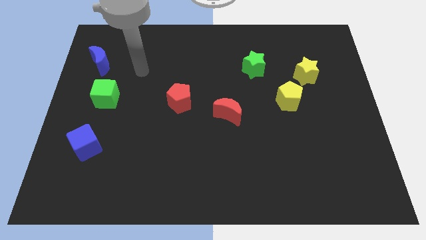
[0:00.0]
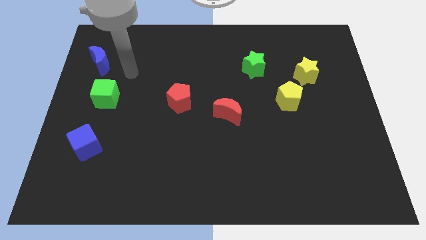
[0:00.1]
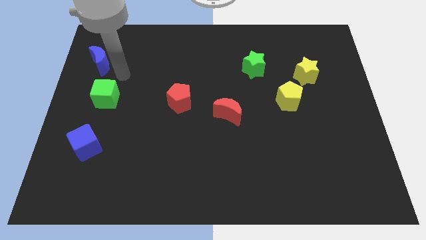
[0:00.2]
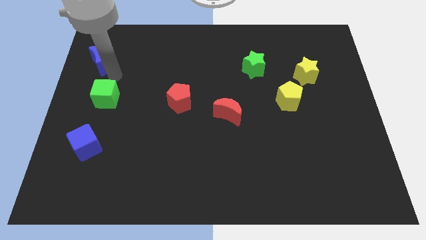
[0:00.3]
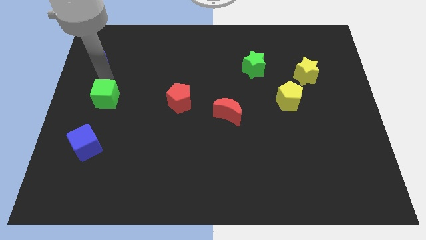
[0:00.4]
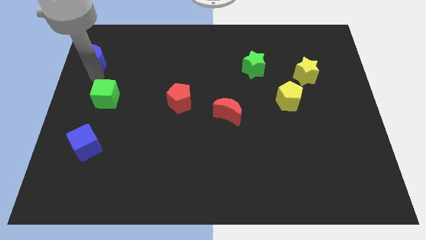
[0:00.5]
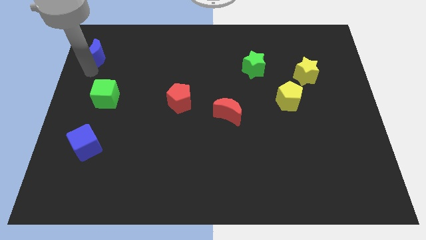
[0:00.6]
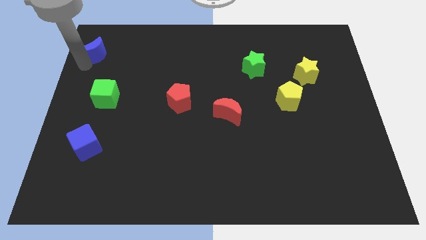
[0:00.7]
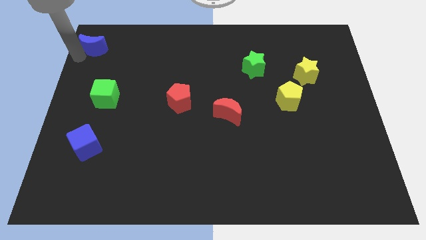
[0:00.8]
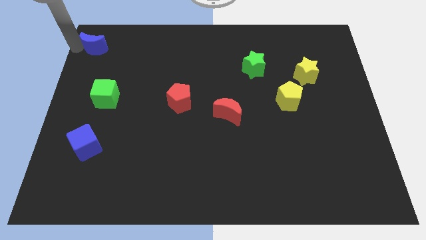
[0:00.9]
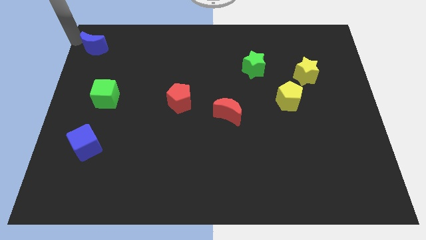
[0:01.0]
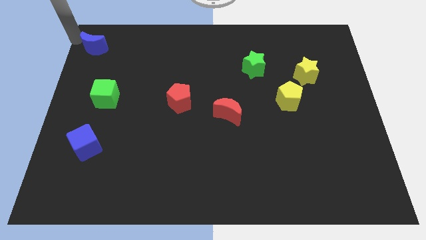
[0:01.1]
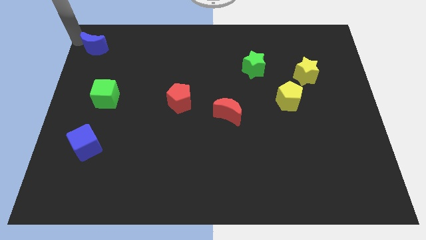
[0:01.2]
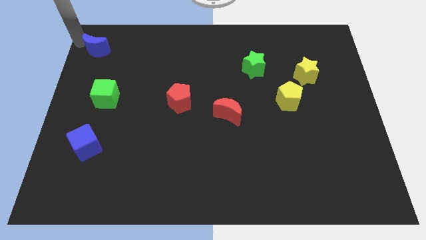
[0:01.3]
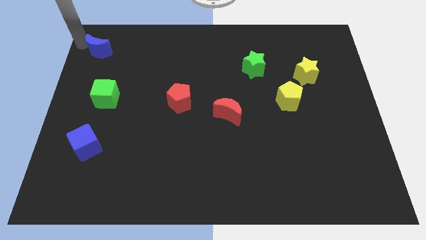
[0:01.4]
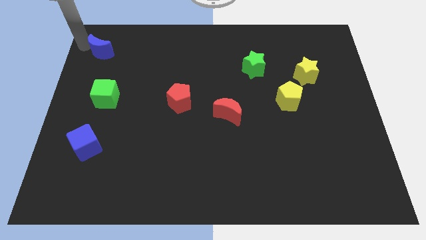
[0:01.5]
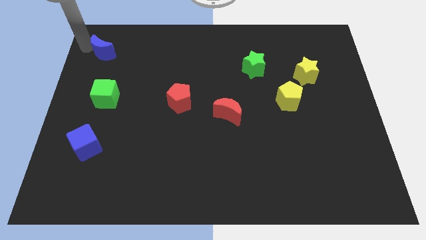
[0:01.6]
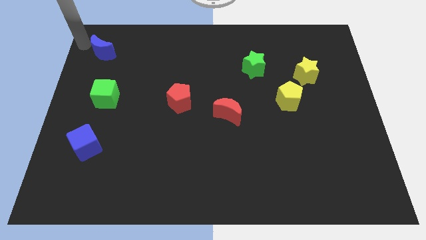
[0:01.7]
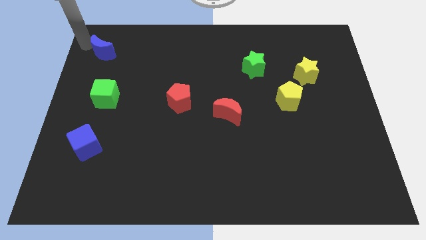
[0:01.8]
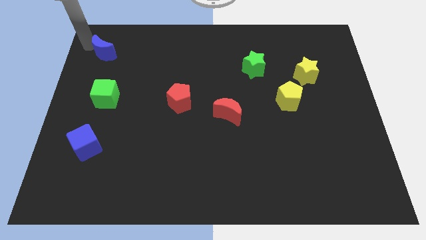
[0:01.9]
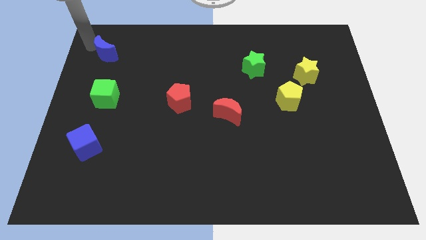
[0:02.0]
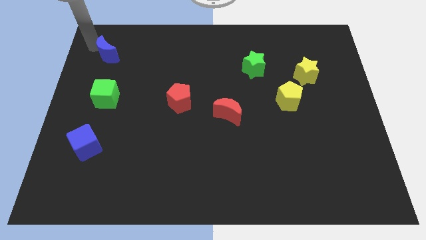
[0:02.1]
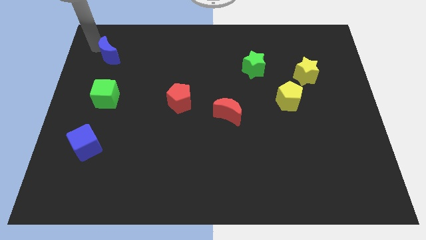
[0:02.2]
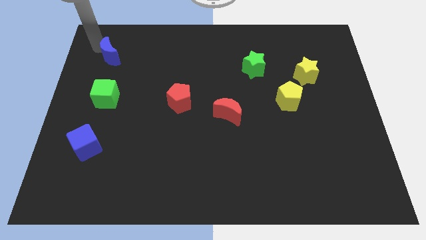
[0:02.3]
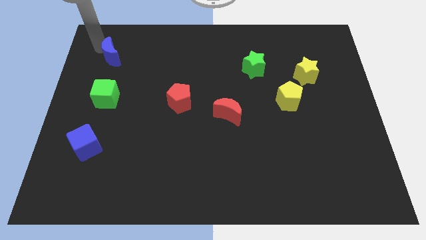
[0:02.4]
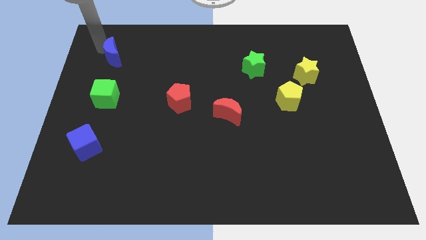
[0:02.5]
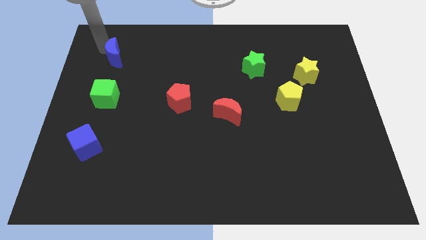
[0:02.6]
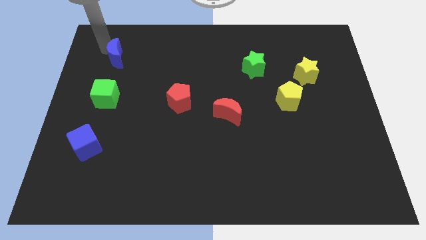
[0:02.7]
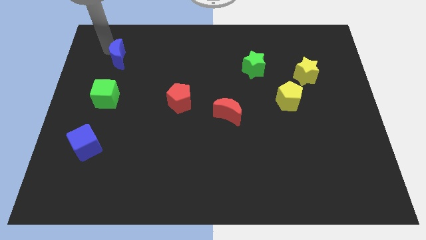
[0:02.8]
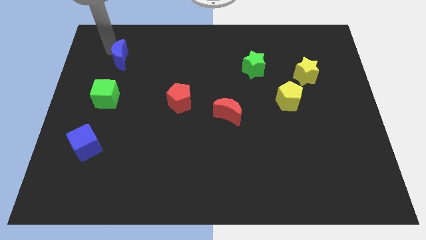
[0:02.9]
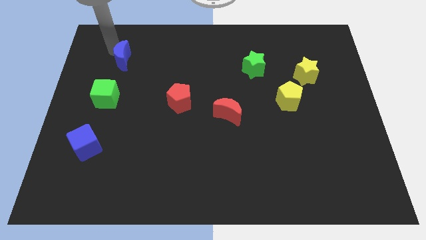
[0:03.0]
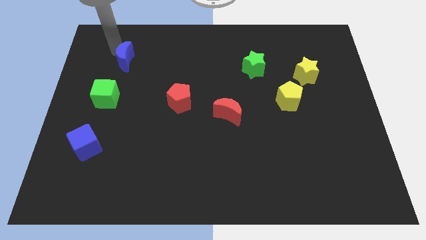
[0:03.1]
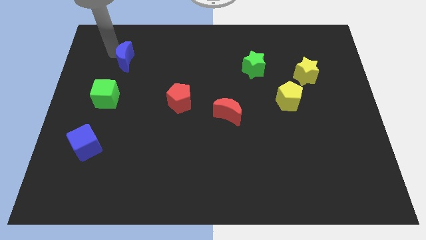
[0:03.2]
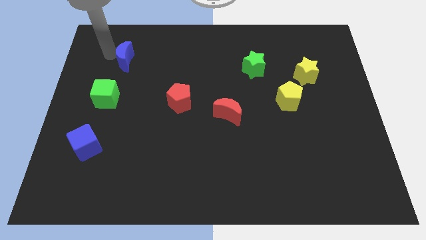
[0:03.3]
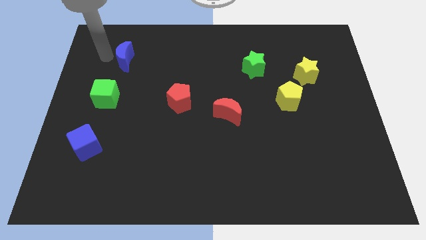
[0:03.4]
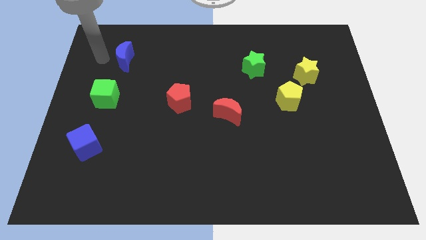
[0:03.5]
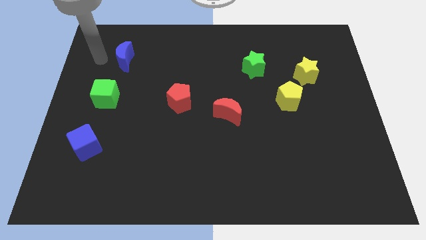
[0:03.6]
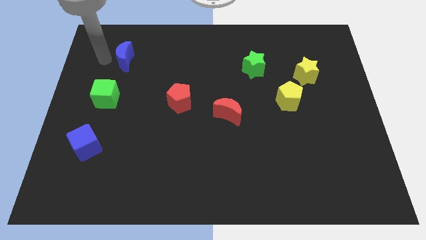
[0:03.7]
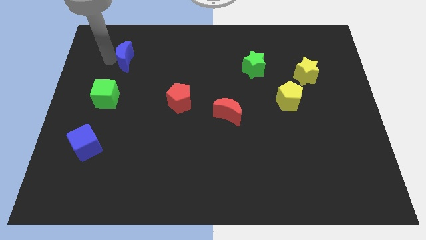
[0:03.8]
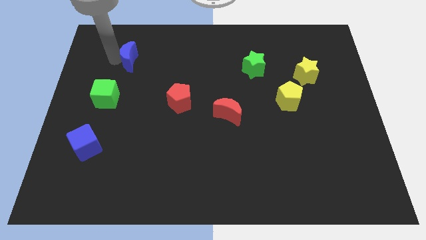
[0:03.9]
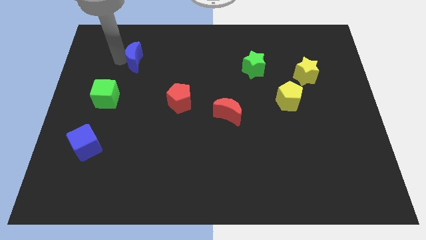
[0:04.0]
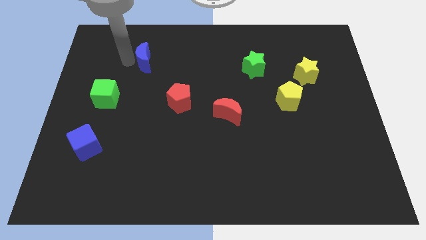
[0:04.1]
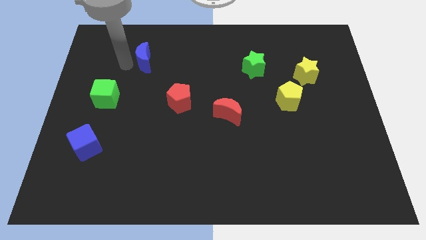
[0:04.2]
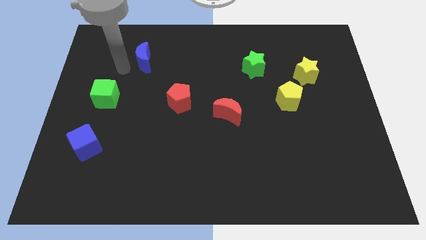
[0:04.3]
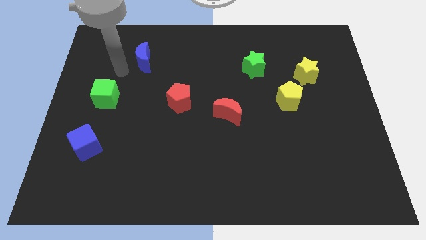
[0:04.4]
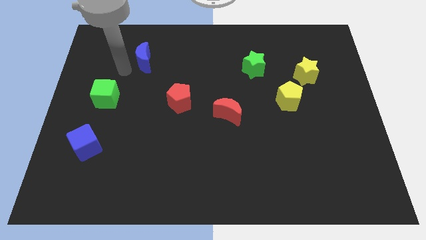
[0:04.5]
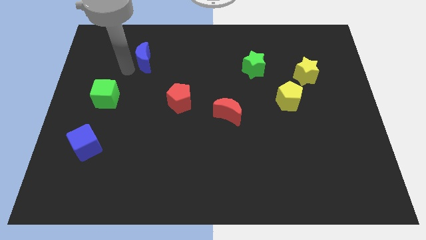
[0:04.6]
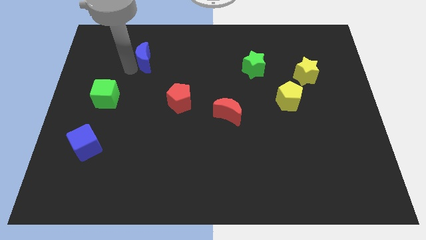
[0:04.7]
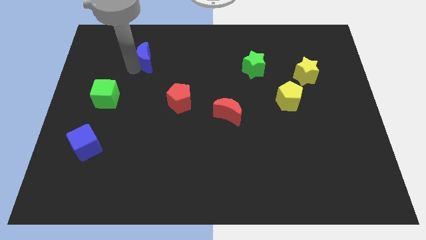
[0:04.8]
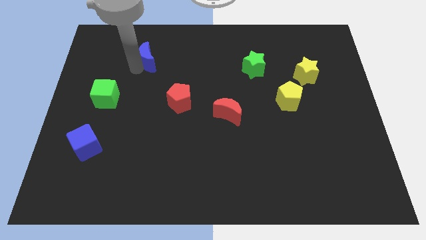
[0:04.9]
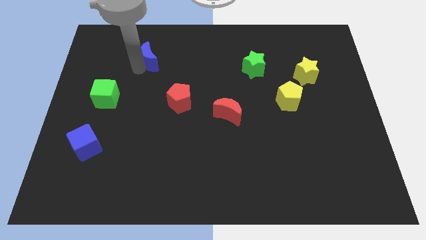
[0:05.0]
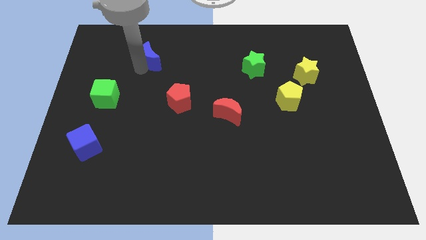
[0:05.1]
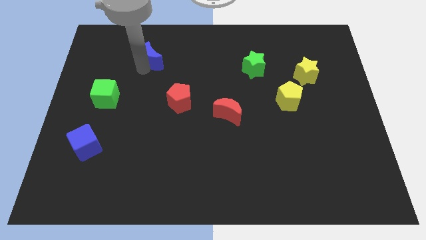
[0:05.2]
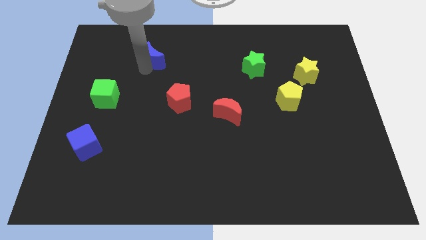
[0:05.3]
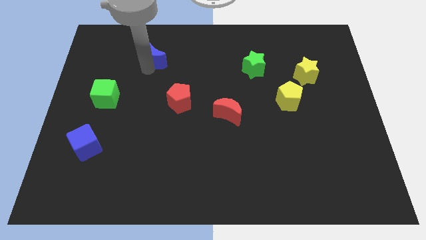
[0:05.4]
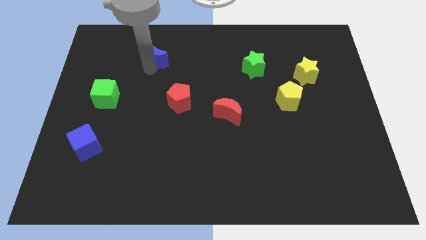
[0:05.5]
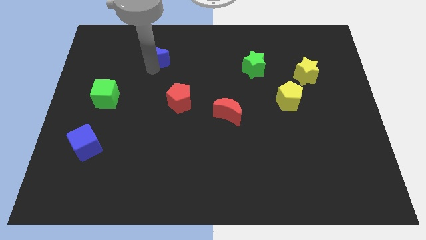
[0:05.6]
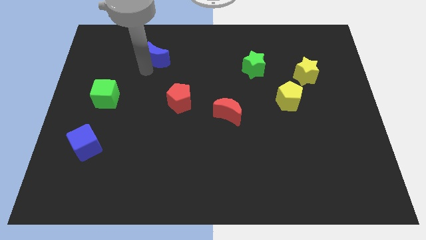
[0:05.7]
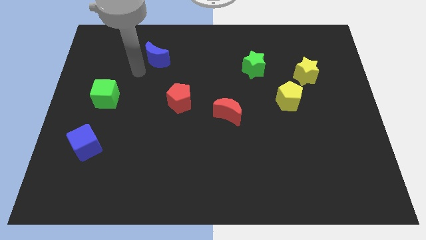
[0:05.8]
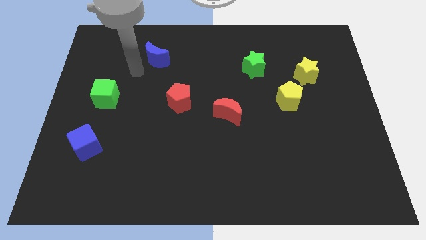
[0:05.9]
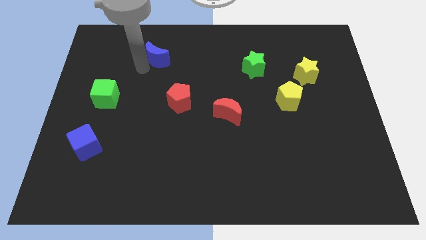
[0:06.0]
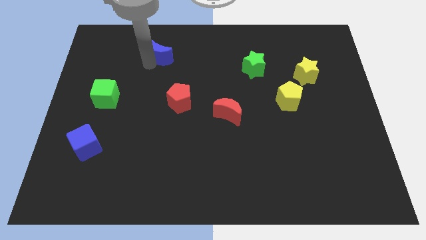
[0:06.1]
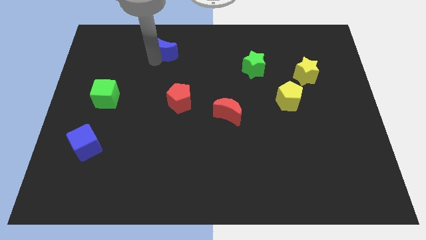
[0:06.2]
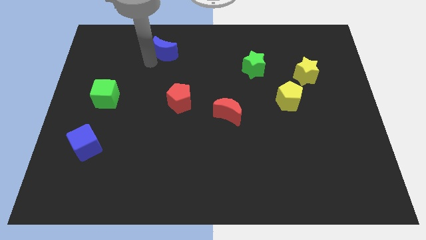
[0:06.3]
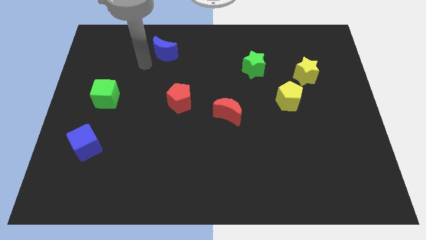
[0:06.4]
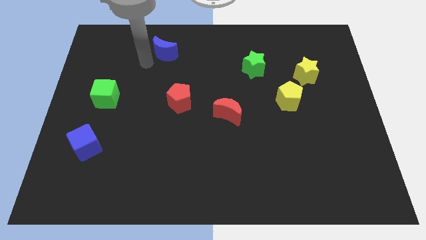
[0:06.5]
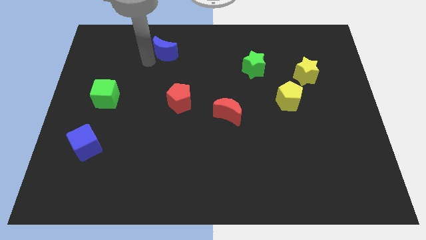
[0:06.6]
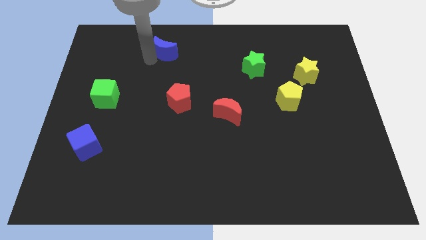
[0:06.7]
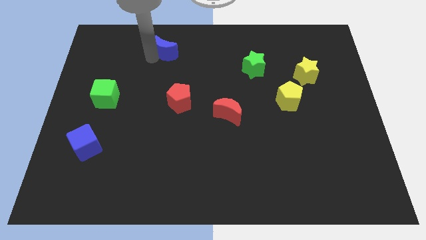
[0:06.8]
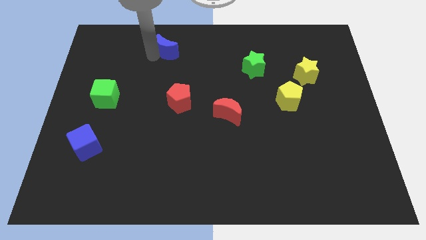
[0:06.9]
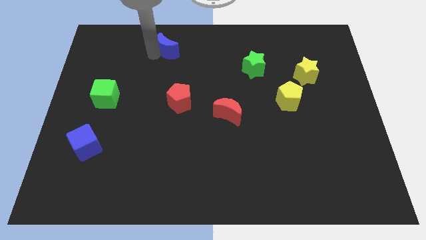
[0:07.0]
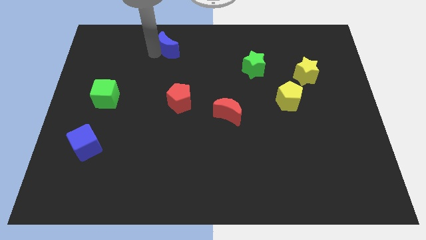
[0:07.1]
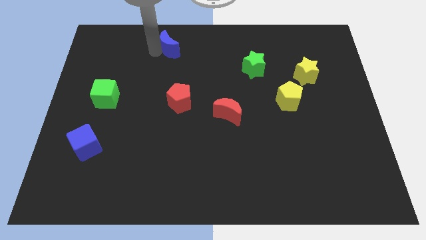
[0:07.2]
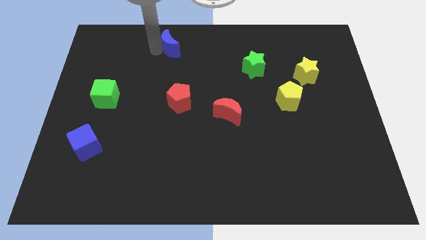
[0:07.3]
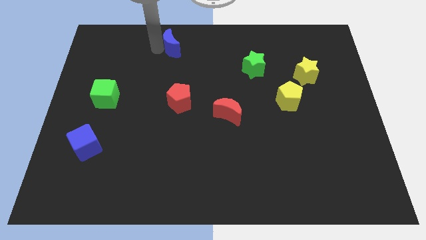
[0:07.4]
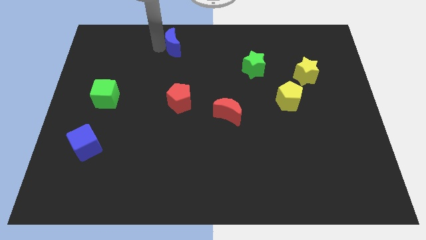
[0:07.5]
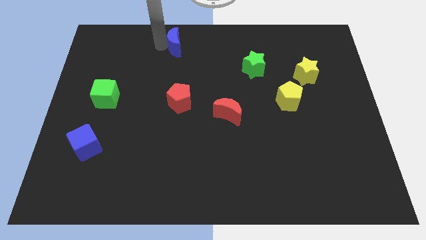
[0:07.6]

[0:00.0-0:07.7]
move the blue moon to the towards your base

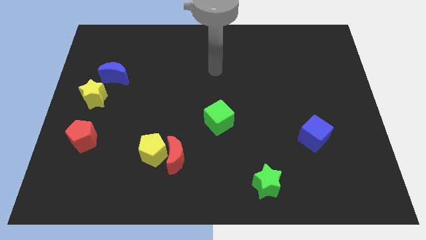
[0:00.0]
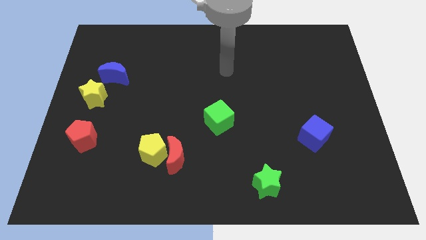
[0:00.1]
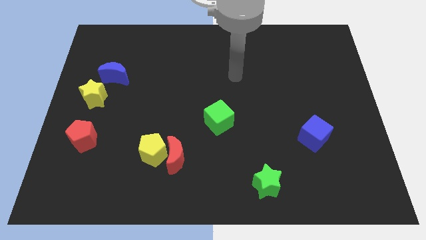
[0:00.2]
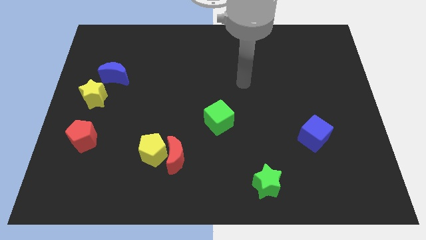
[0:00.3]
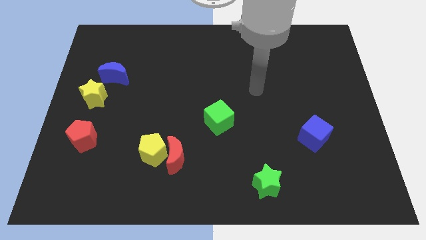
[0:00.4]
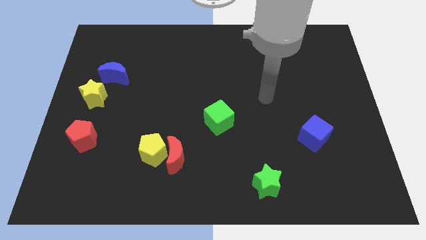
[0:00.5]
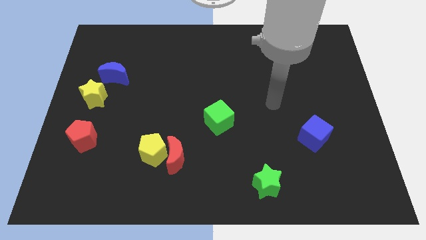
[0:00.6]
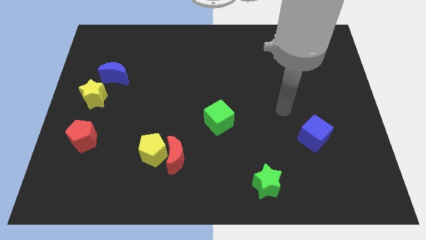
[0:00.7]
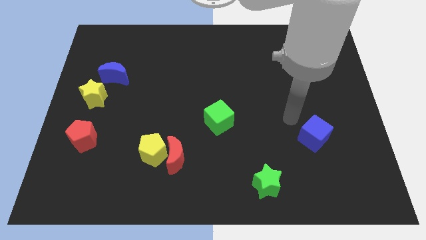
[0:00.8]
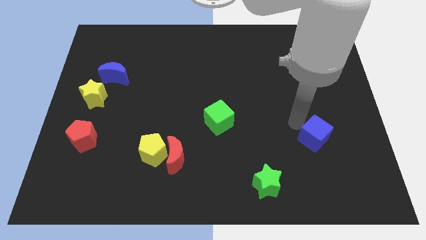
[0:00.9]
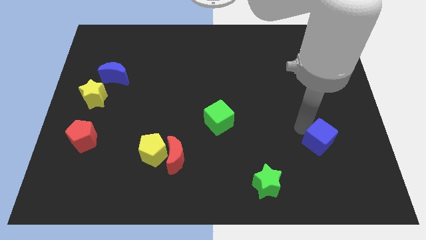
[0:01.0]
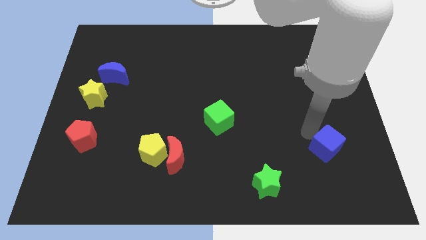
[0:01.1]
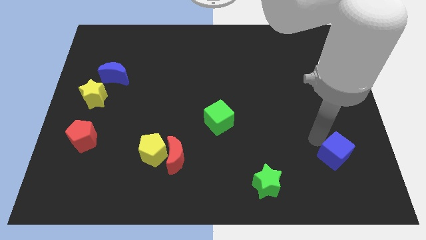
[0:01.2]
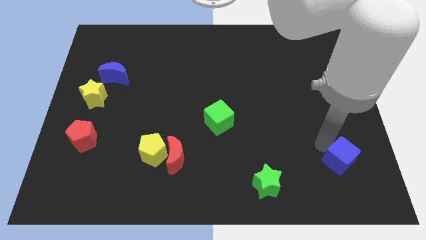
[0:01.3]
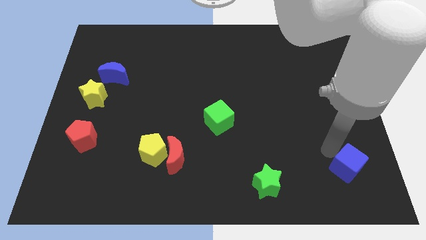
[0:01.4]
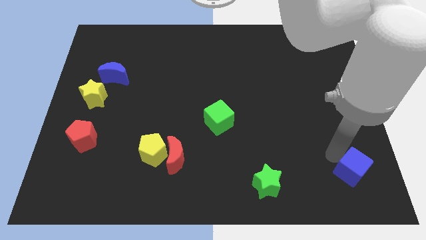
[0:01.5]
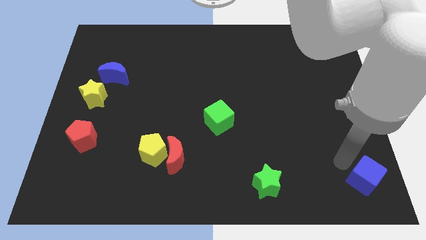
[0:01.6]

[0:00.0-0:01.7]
push the blue cube to the lower right corner
